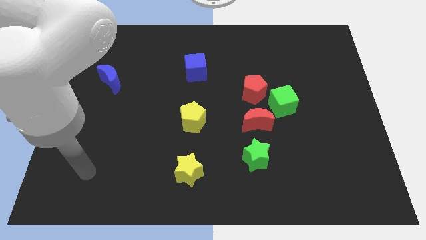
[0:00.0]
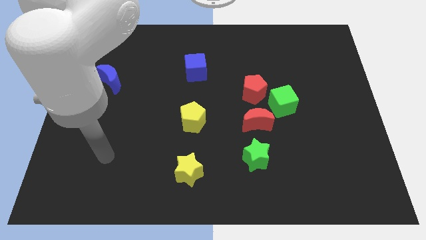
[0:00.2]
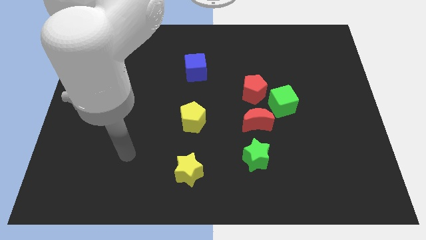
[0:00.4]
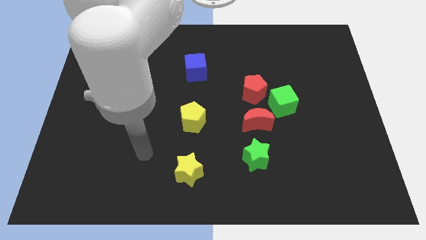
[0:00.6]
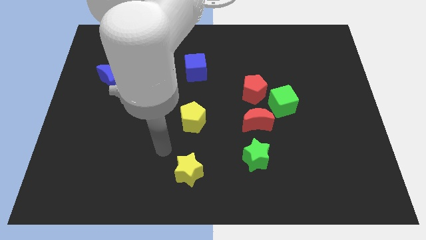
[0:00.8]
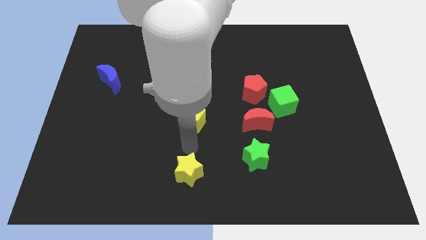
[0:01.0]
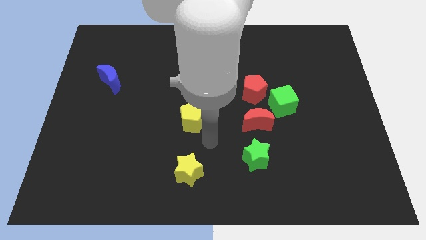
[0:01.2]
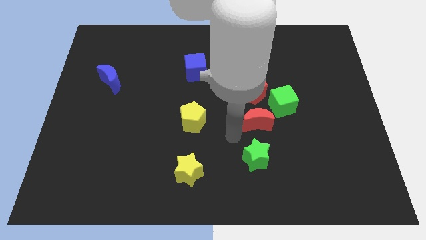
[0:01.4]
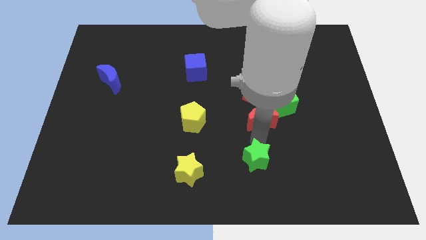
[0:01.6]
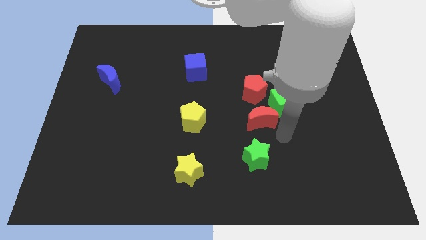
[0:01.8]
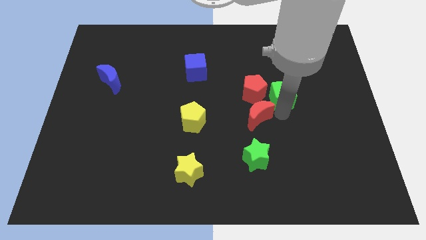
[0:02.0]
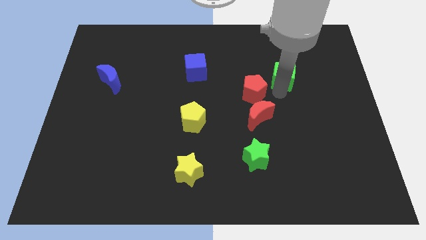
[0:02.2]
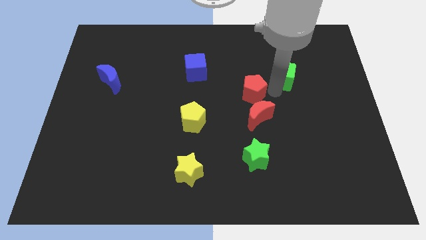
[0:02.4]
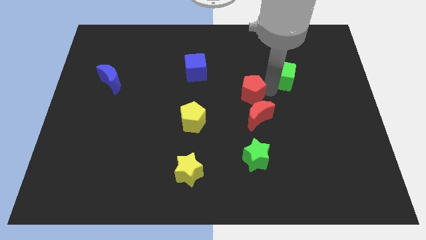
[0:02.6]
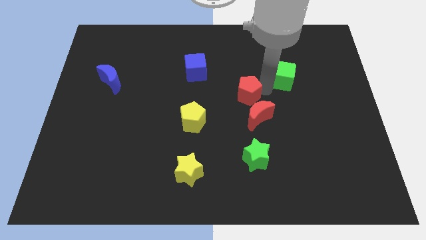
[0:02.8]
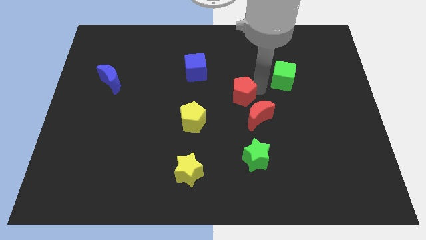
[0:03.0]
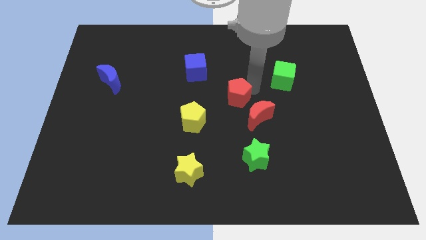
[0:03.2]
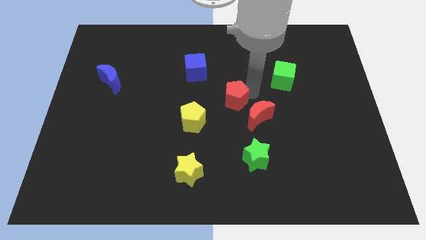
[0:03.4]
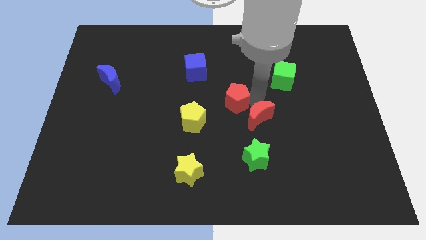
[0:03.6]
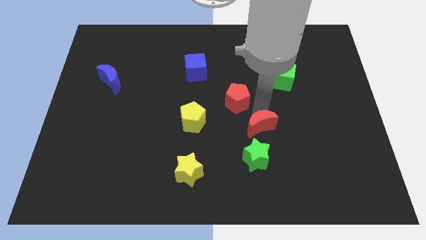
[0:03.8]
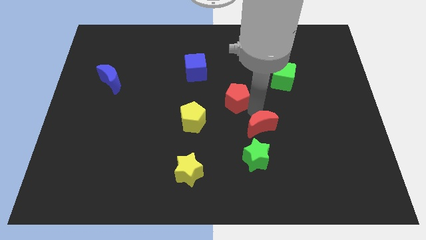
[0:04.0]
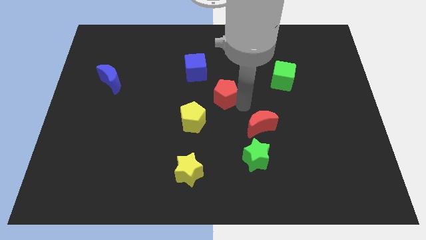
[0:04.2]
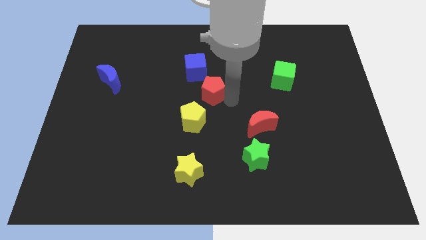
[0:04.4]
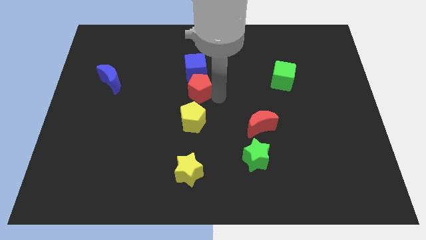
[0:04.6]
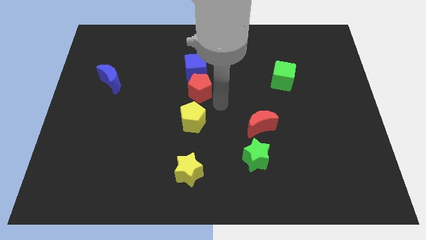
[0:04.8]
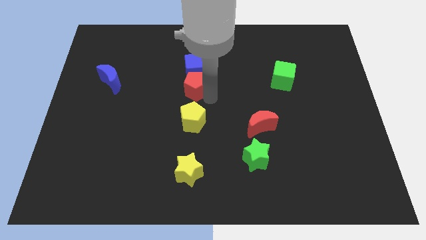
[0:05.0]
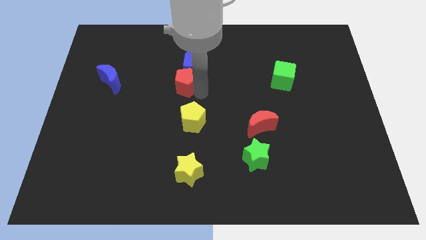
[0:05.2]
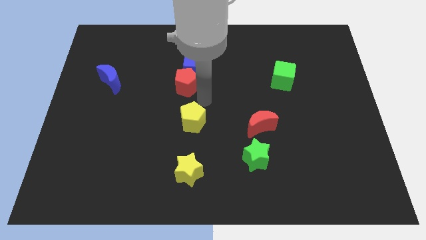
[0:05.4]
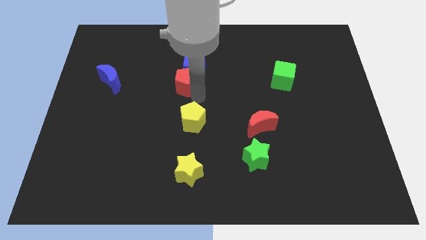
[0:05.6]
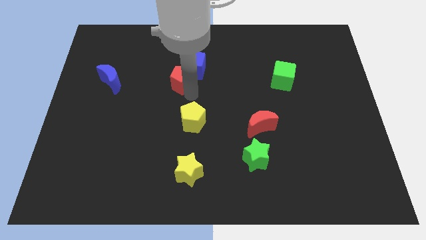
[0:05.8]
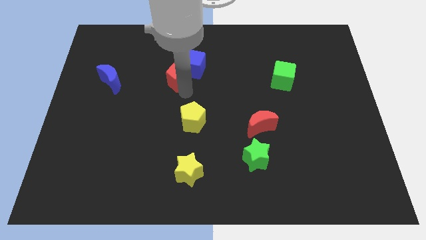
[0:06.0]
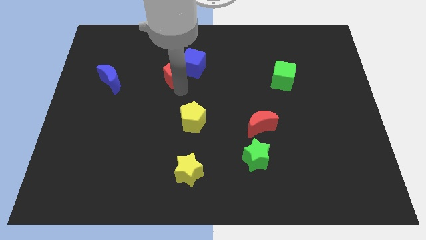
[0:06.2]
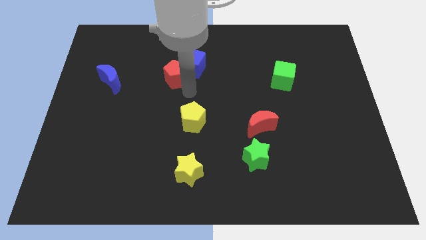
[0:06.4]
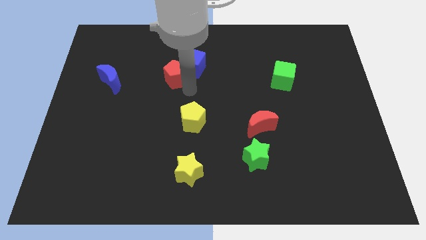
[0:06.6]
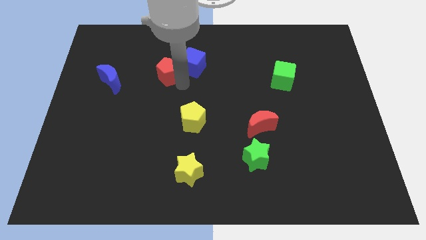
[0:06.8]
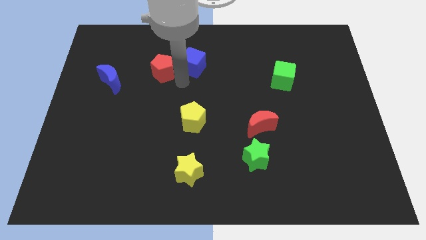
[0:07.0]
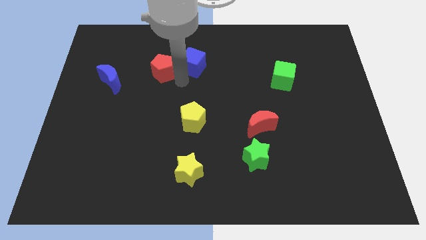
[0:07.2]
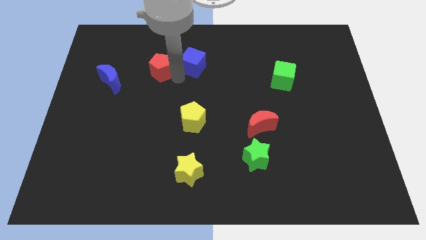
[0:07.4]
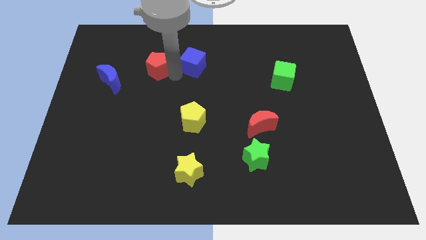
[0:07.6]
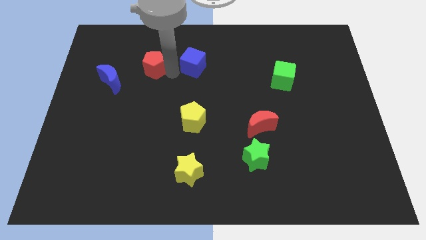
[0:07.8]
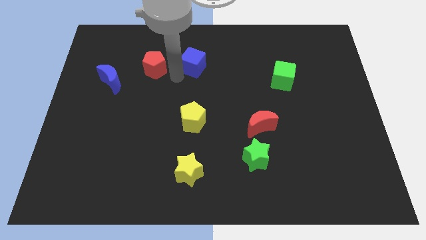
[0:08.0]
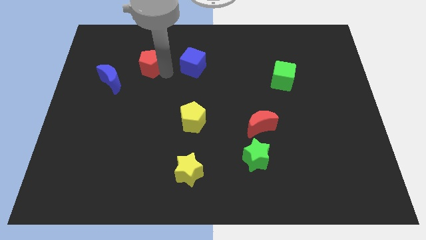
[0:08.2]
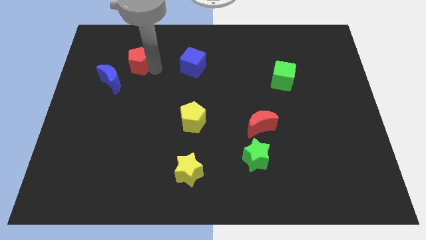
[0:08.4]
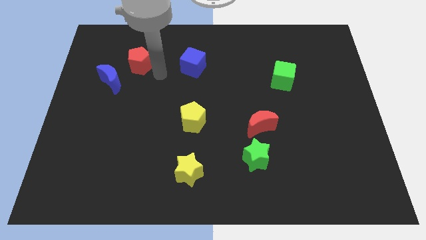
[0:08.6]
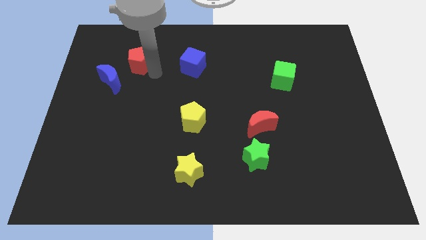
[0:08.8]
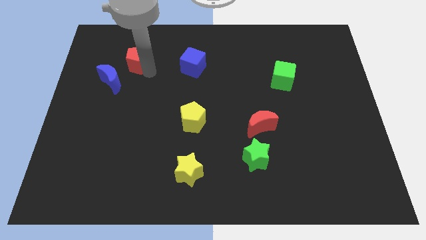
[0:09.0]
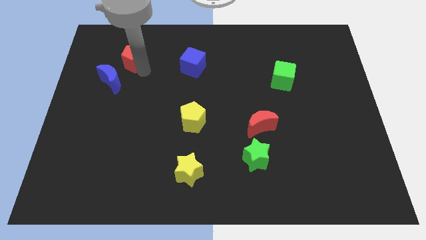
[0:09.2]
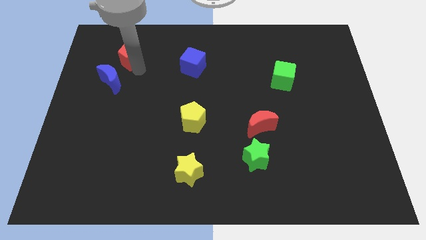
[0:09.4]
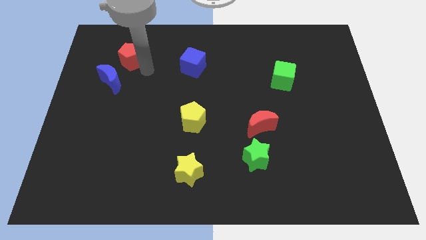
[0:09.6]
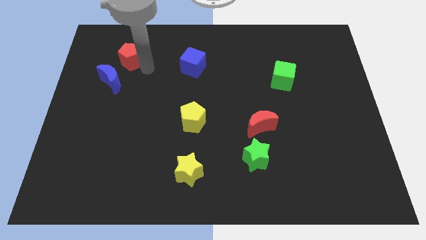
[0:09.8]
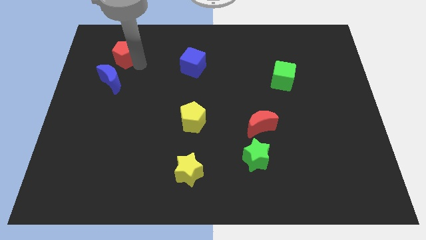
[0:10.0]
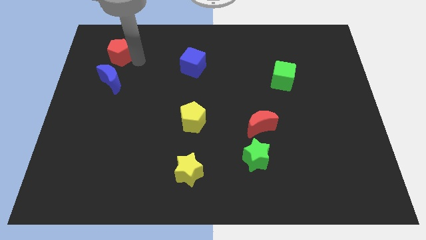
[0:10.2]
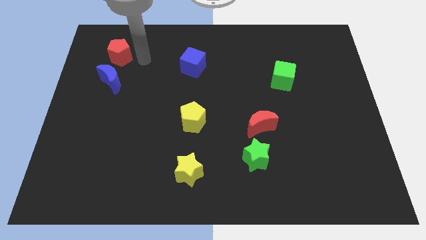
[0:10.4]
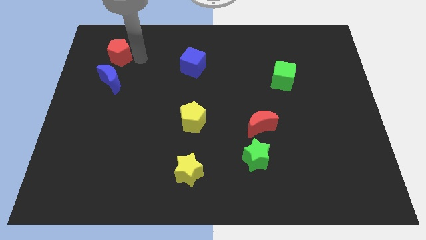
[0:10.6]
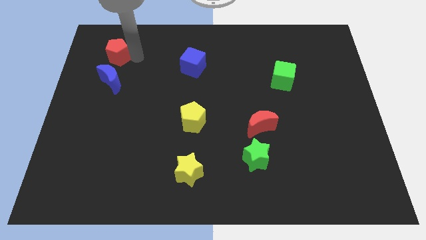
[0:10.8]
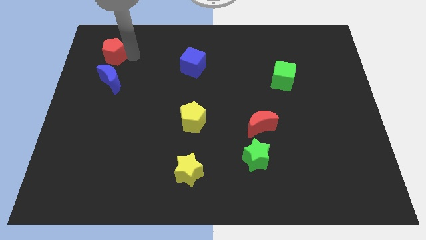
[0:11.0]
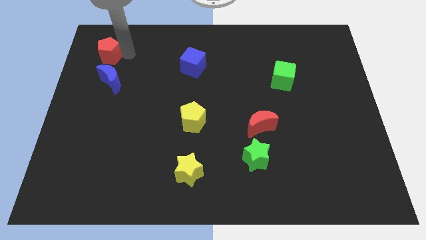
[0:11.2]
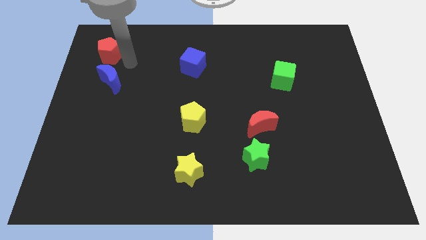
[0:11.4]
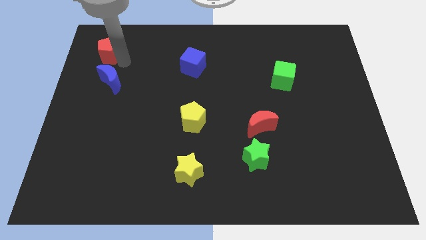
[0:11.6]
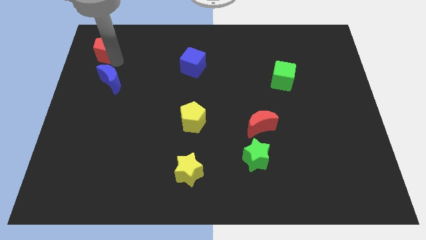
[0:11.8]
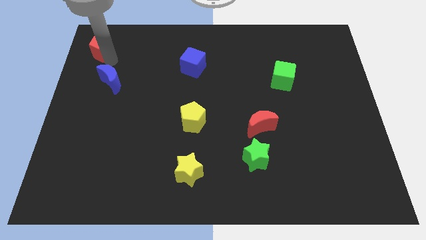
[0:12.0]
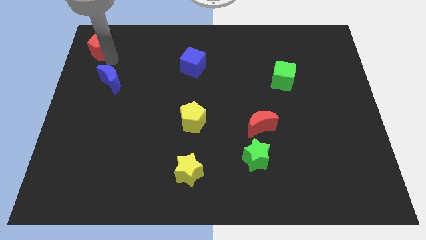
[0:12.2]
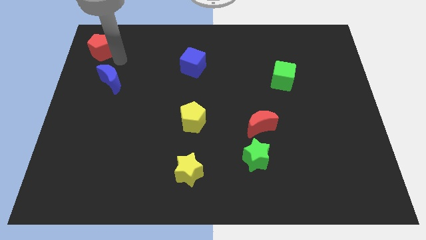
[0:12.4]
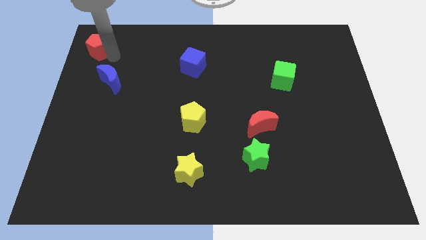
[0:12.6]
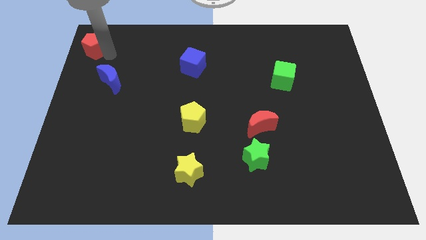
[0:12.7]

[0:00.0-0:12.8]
put the red pentagon to the top left
